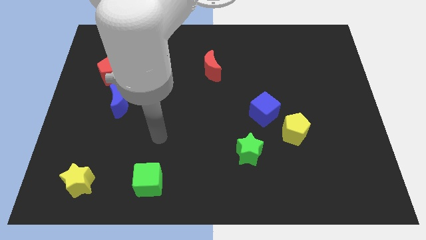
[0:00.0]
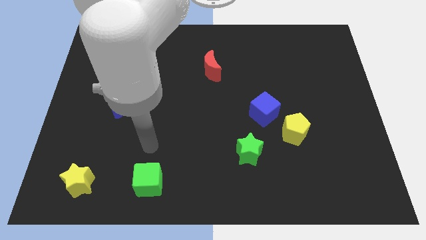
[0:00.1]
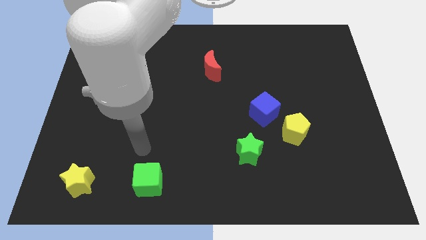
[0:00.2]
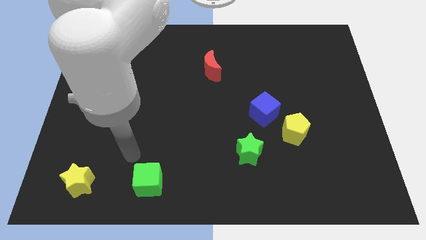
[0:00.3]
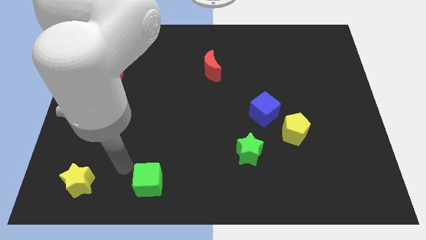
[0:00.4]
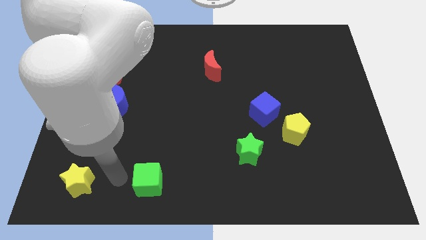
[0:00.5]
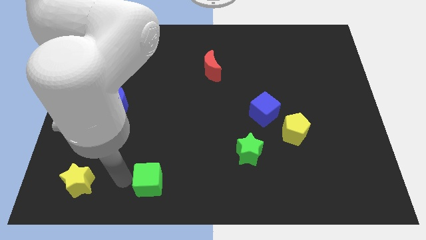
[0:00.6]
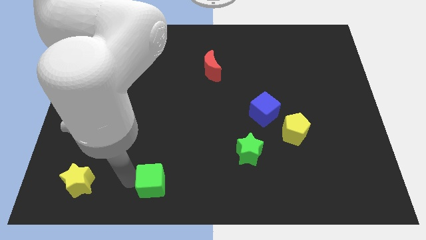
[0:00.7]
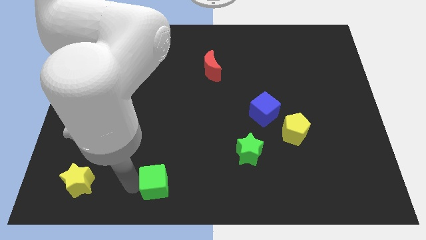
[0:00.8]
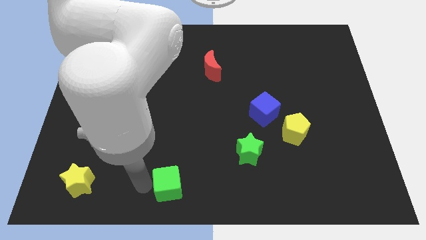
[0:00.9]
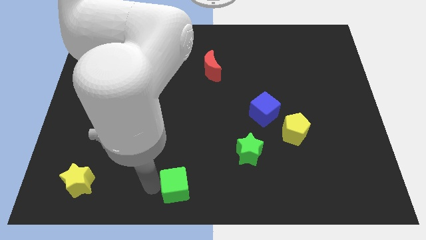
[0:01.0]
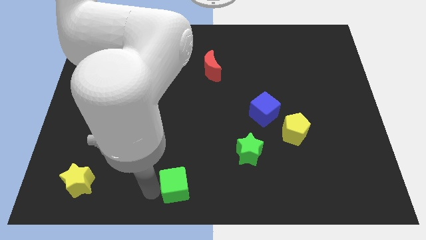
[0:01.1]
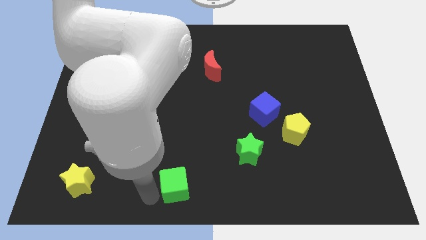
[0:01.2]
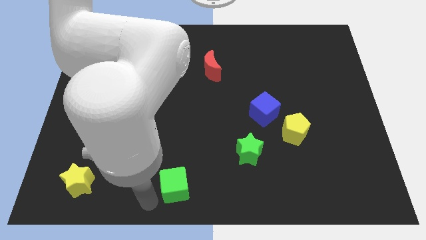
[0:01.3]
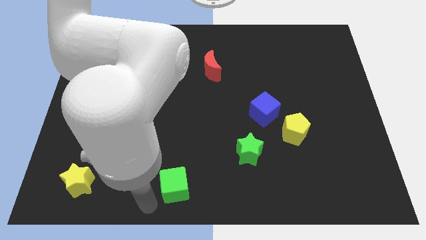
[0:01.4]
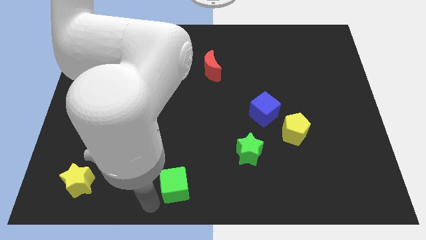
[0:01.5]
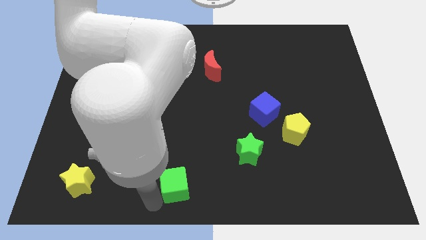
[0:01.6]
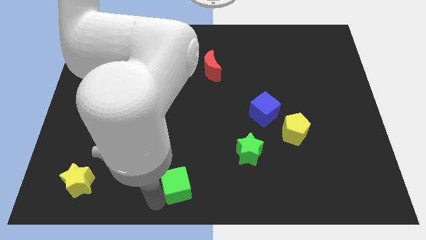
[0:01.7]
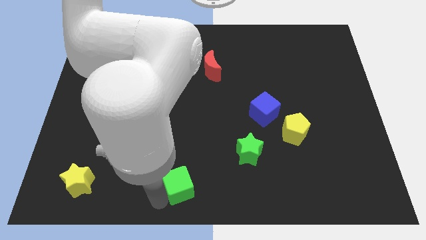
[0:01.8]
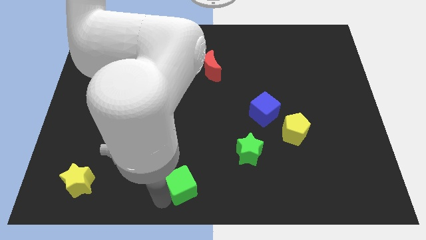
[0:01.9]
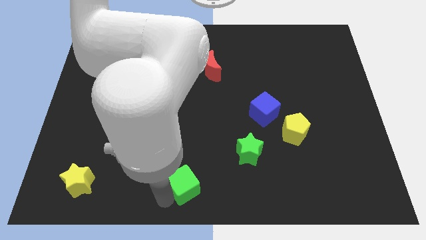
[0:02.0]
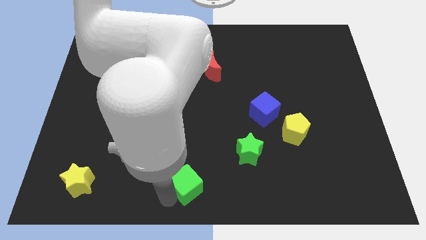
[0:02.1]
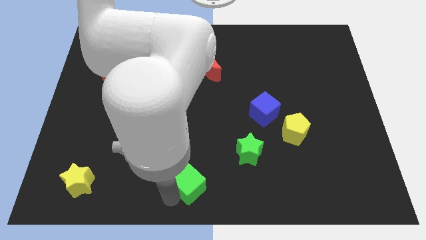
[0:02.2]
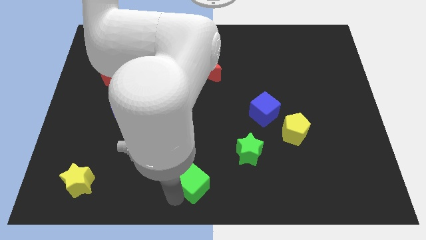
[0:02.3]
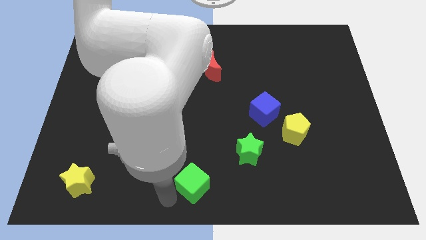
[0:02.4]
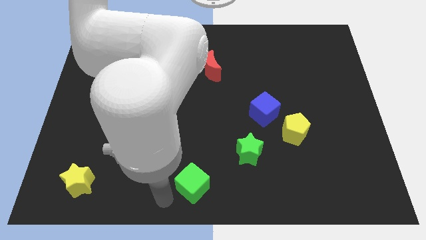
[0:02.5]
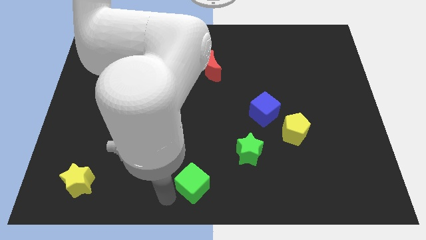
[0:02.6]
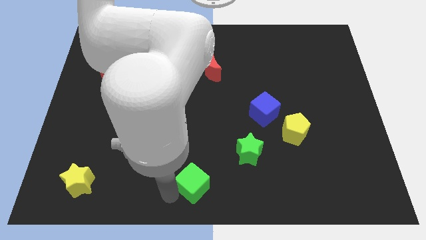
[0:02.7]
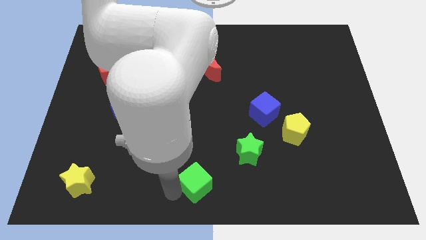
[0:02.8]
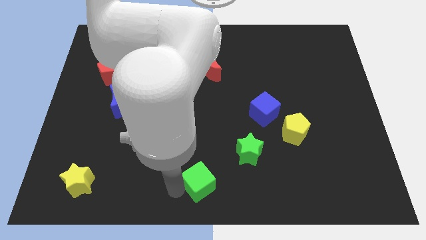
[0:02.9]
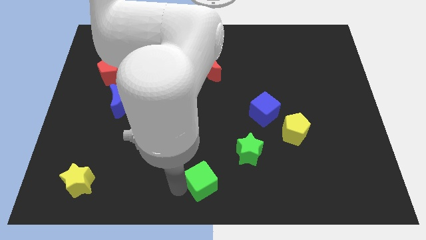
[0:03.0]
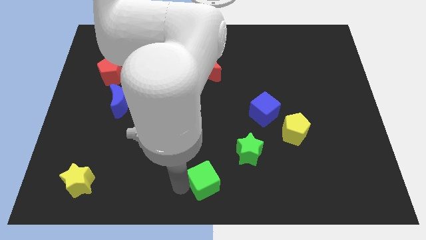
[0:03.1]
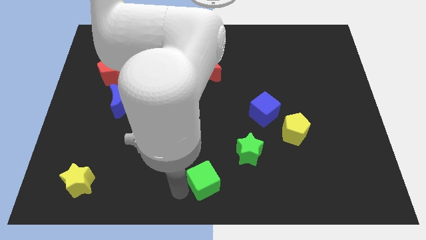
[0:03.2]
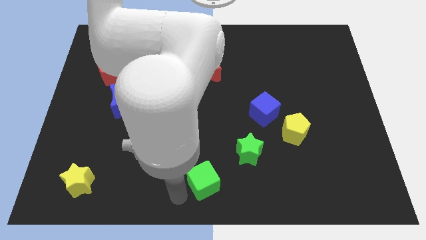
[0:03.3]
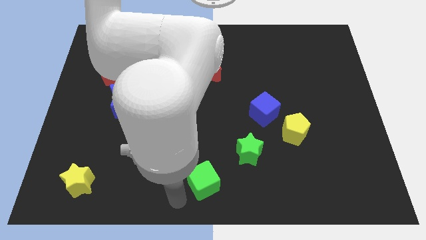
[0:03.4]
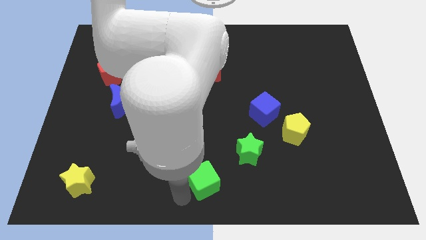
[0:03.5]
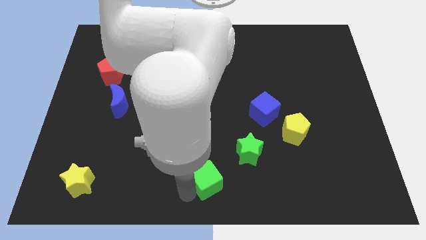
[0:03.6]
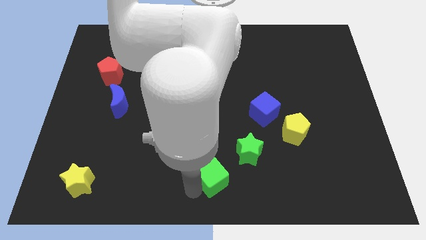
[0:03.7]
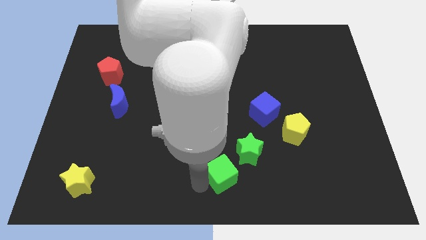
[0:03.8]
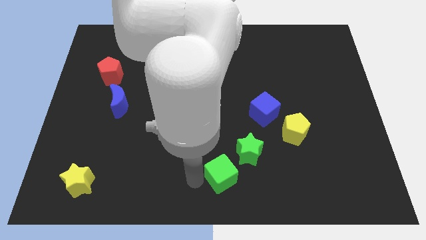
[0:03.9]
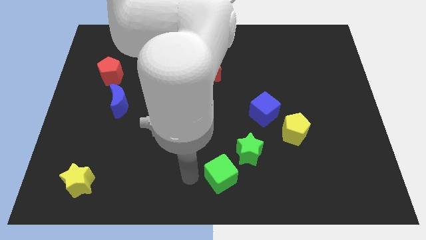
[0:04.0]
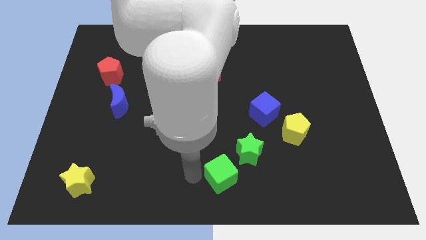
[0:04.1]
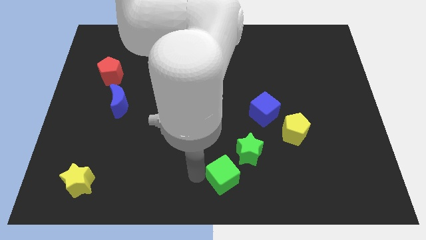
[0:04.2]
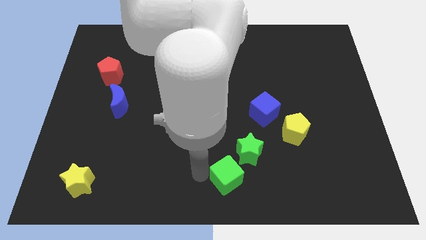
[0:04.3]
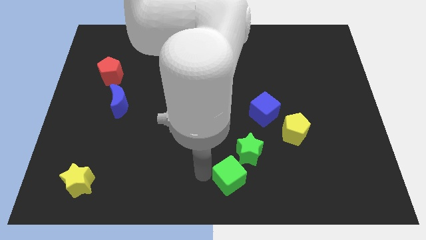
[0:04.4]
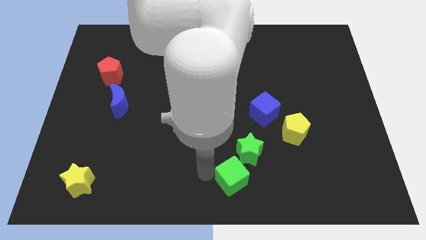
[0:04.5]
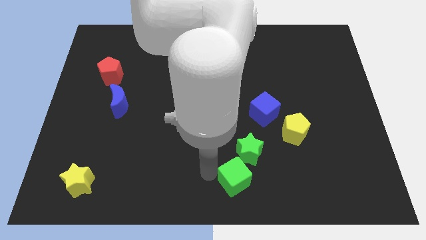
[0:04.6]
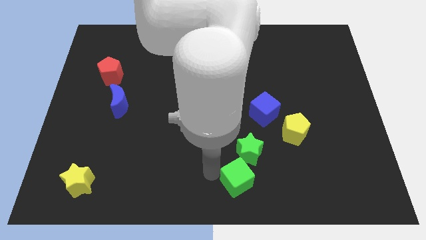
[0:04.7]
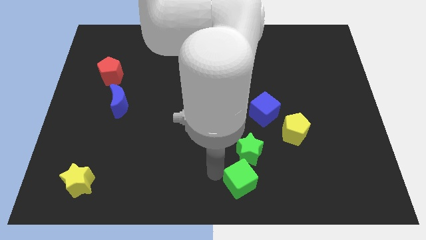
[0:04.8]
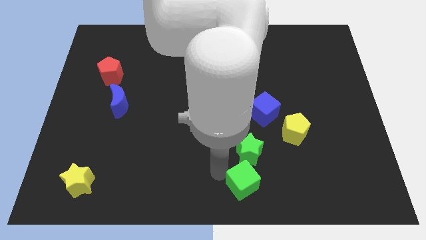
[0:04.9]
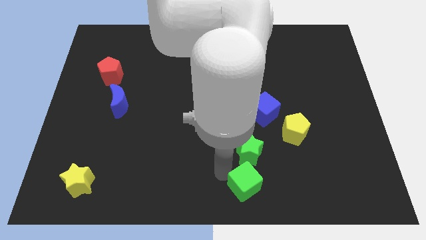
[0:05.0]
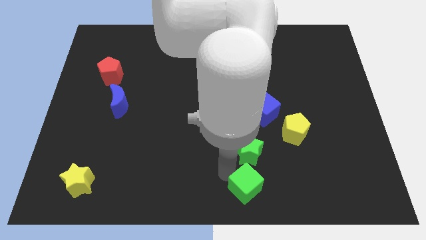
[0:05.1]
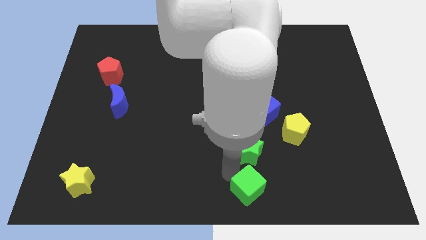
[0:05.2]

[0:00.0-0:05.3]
slide the green cube right

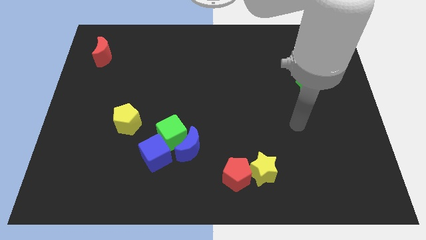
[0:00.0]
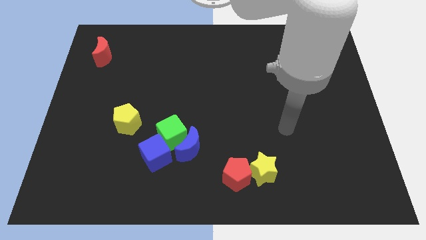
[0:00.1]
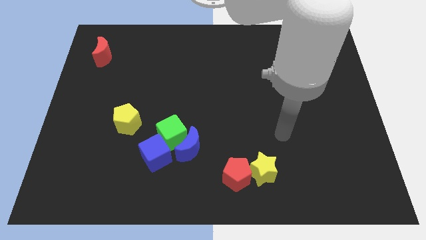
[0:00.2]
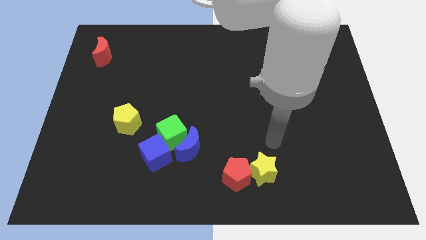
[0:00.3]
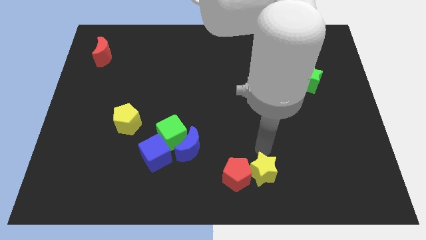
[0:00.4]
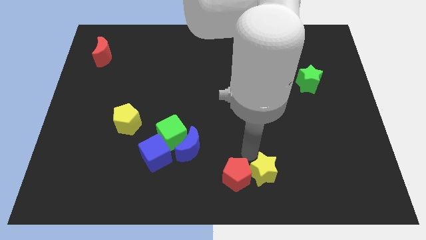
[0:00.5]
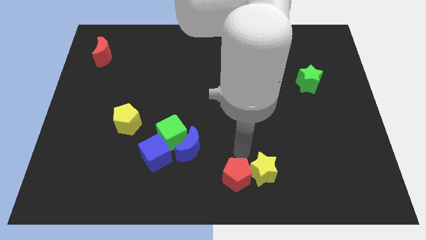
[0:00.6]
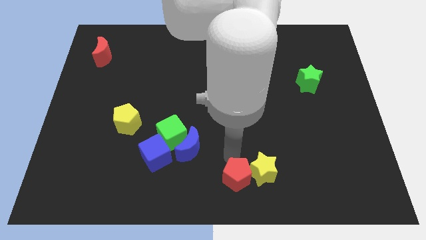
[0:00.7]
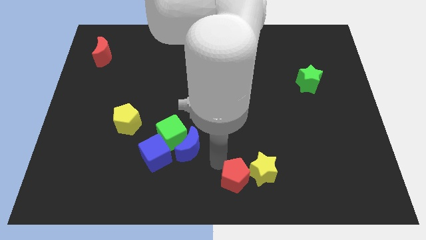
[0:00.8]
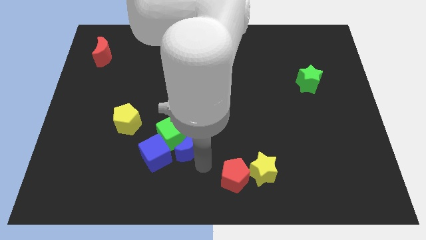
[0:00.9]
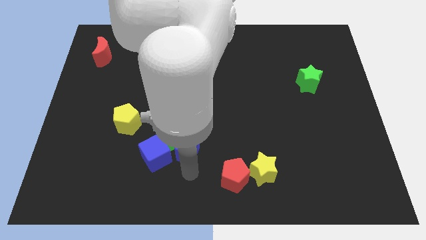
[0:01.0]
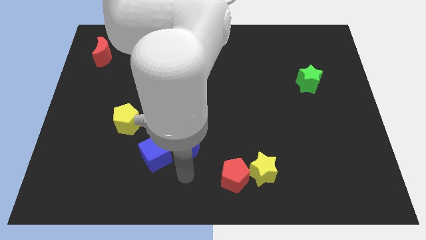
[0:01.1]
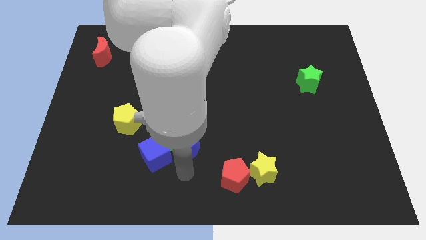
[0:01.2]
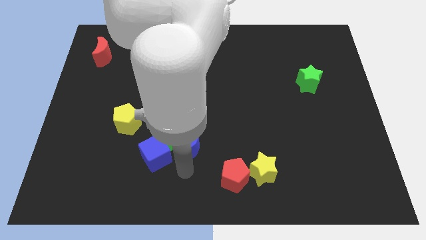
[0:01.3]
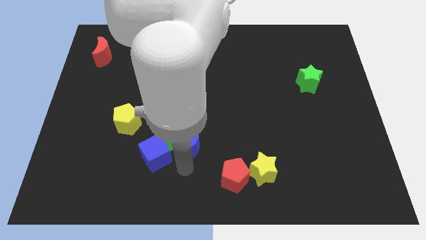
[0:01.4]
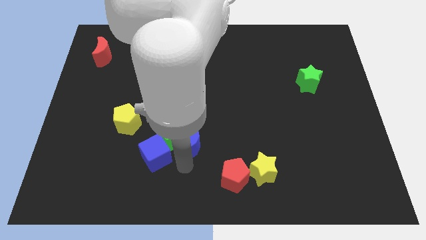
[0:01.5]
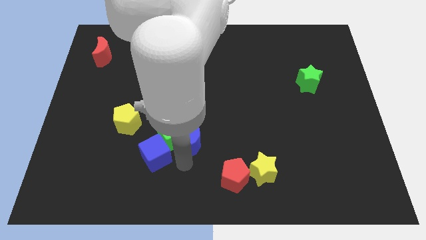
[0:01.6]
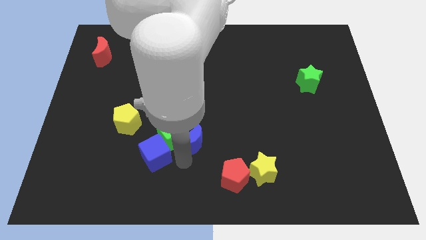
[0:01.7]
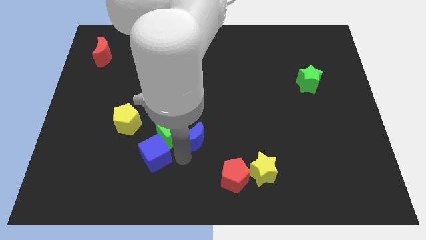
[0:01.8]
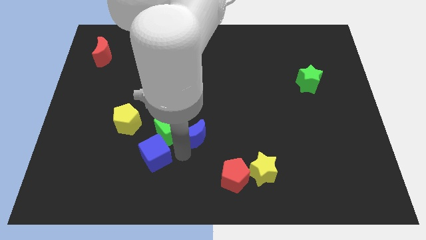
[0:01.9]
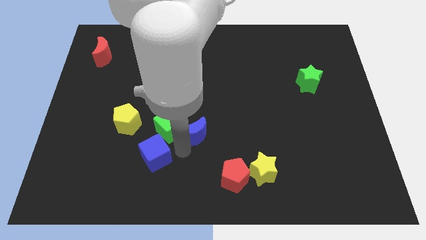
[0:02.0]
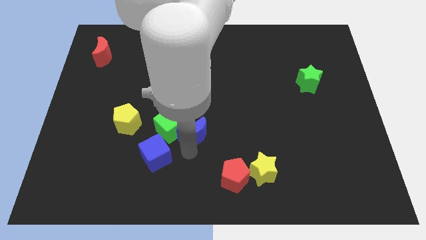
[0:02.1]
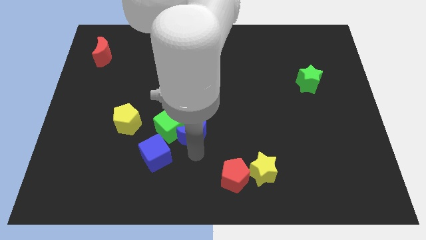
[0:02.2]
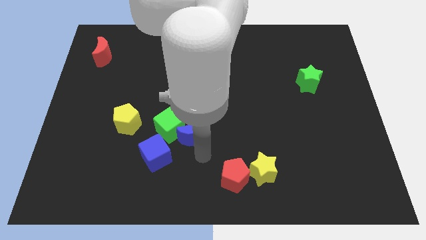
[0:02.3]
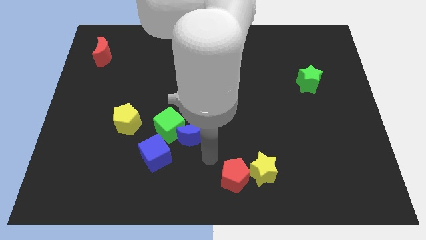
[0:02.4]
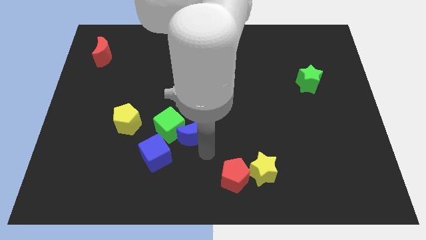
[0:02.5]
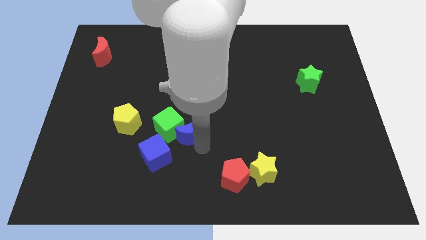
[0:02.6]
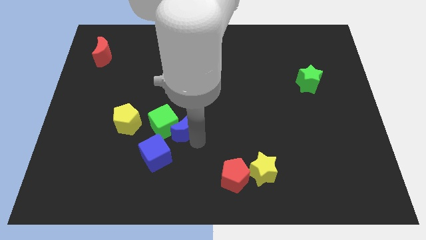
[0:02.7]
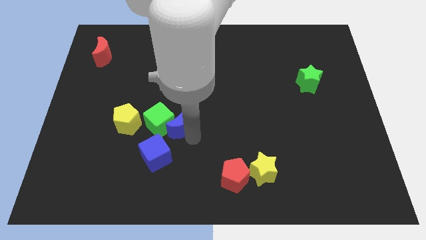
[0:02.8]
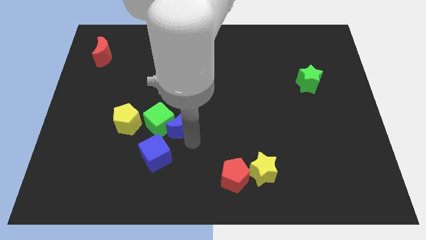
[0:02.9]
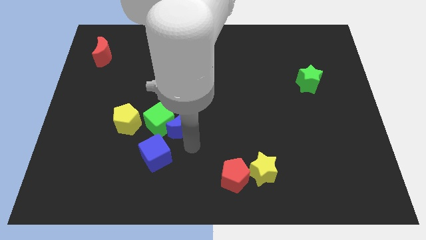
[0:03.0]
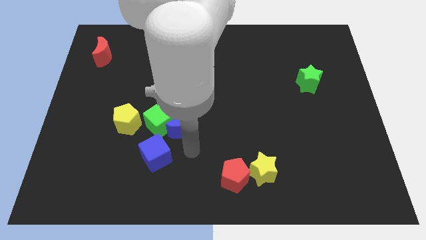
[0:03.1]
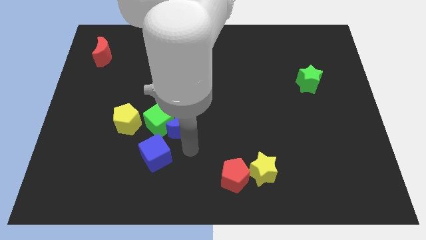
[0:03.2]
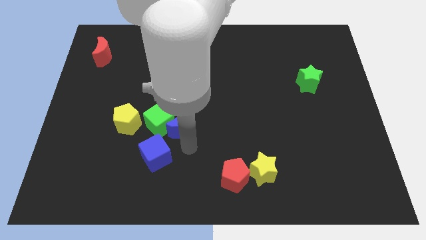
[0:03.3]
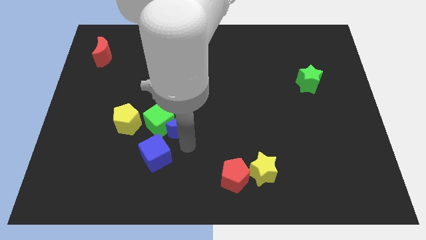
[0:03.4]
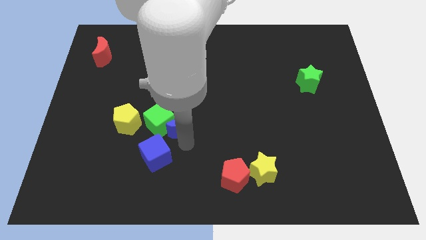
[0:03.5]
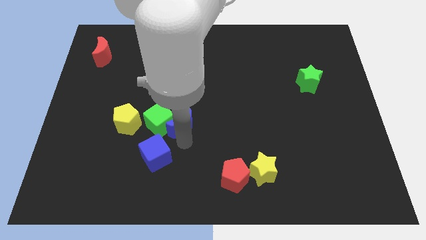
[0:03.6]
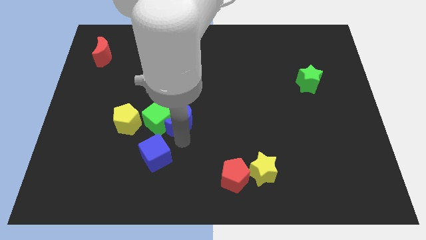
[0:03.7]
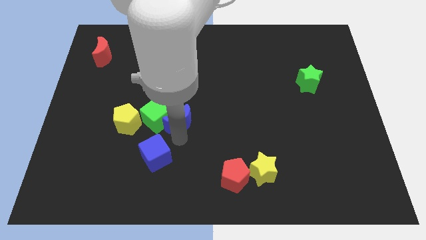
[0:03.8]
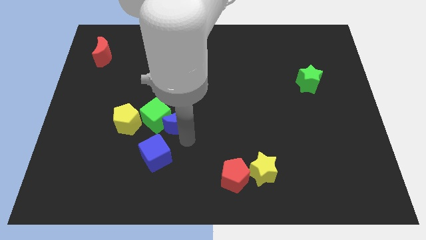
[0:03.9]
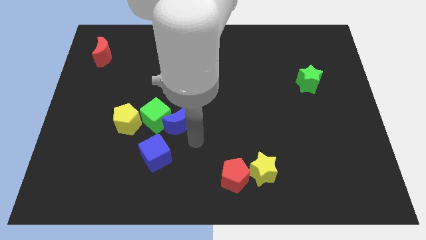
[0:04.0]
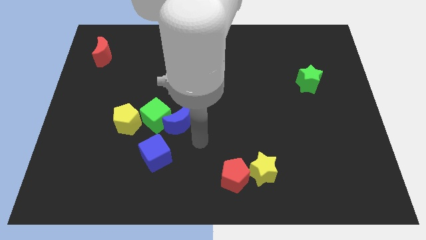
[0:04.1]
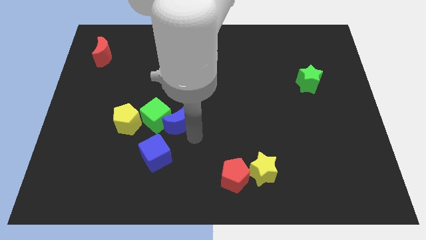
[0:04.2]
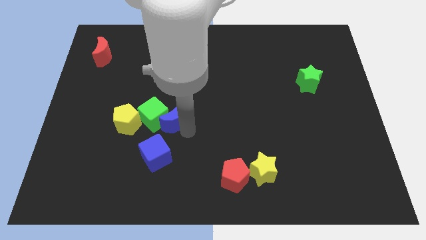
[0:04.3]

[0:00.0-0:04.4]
slide the blue moon upwards and left diagonally somewhat
